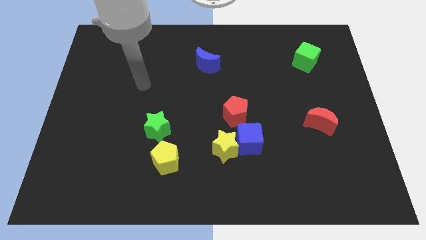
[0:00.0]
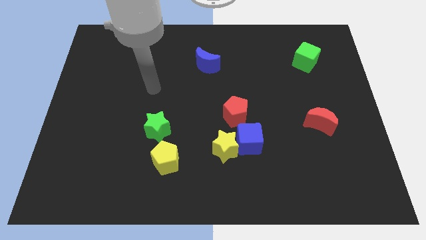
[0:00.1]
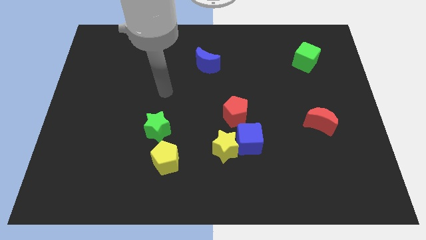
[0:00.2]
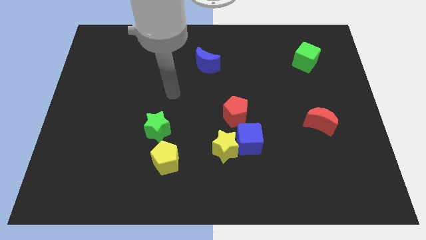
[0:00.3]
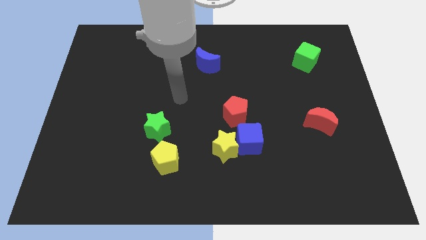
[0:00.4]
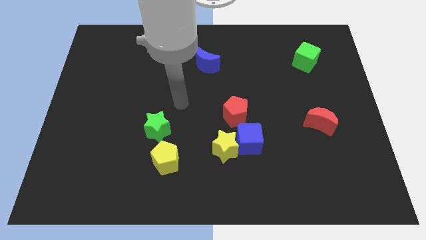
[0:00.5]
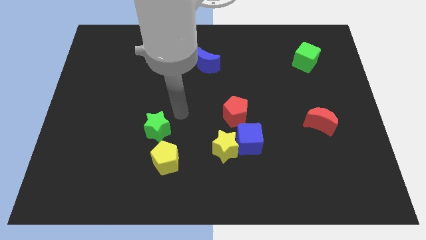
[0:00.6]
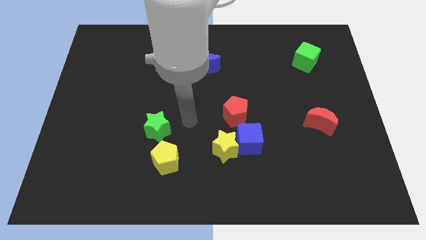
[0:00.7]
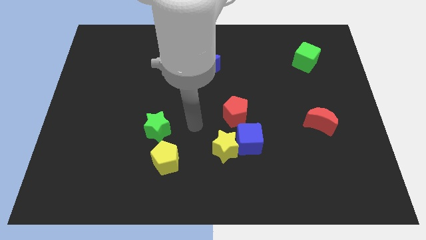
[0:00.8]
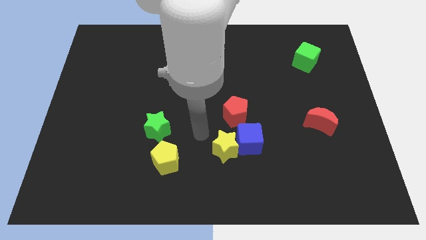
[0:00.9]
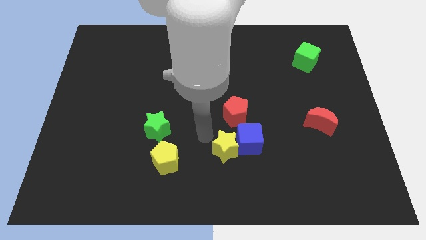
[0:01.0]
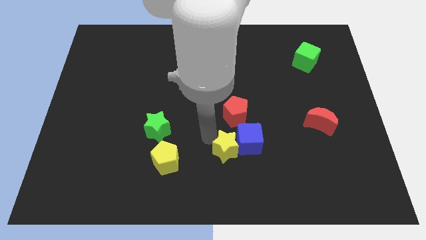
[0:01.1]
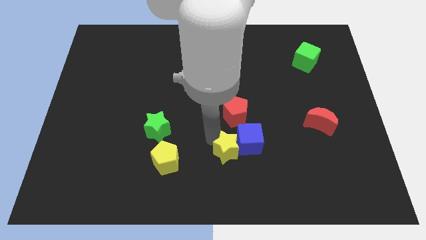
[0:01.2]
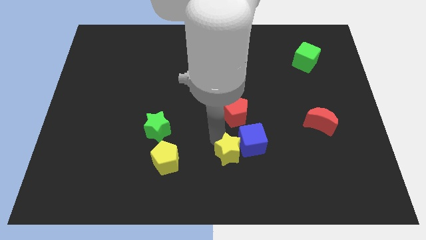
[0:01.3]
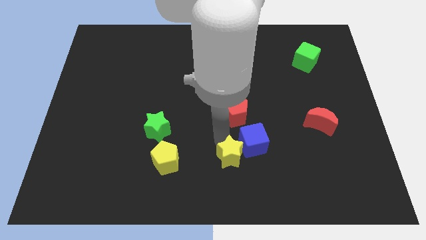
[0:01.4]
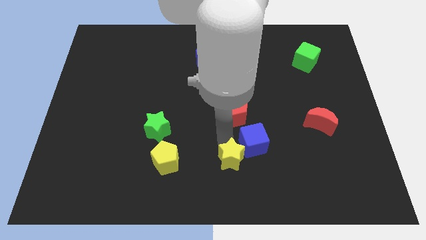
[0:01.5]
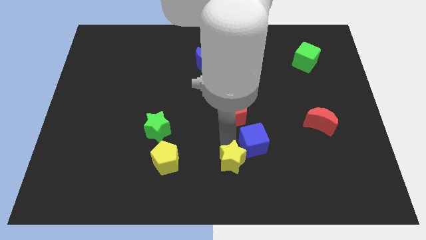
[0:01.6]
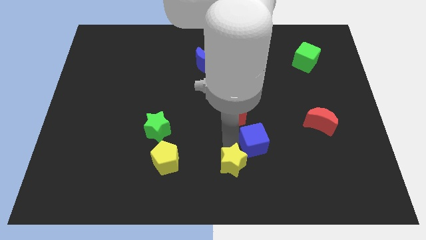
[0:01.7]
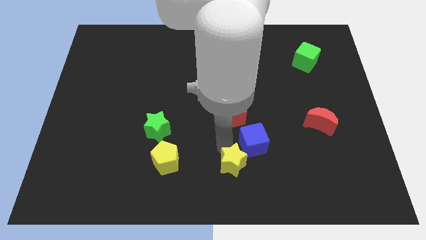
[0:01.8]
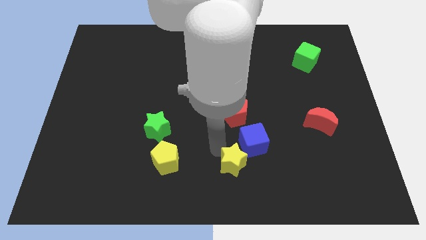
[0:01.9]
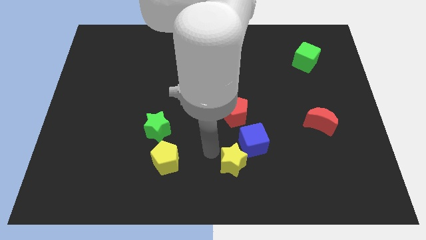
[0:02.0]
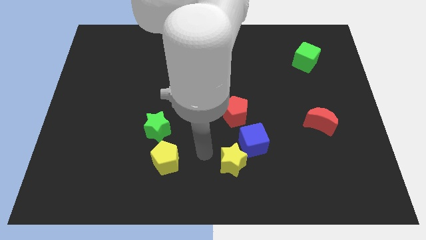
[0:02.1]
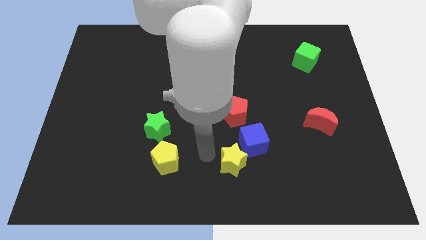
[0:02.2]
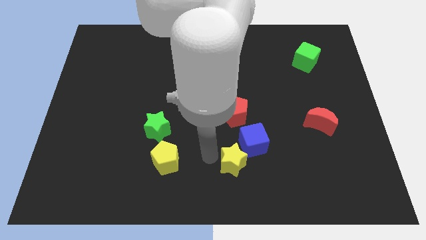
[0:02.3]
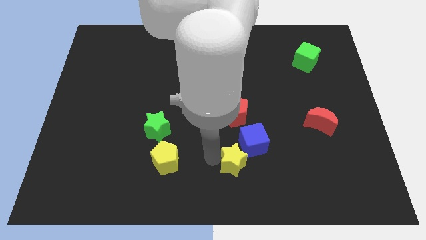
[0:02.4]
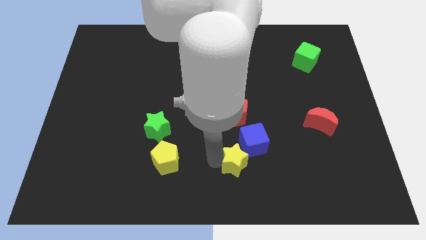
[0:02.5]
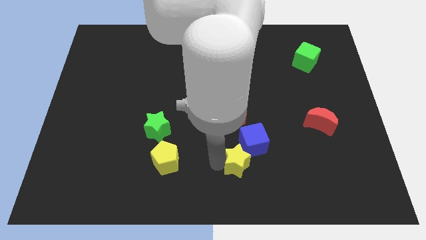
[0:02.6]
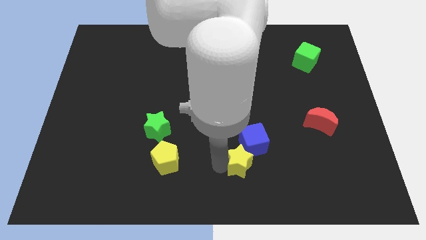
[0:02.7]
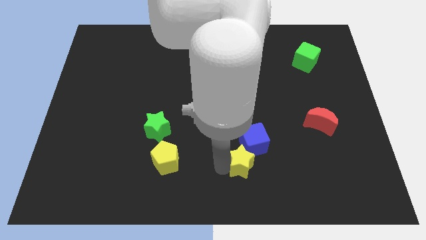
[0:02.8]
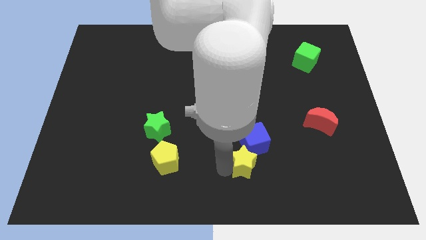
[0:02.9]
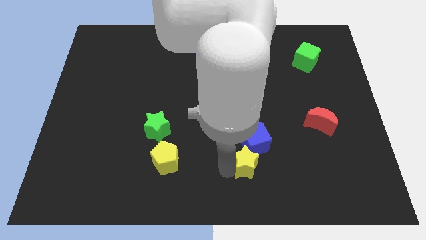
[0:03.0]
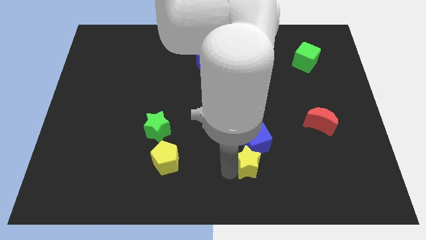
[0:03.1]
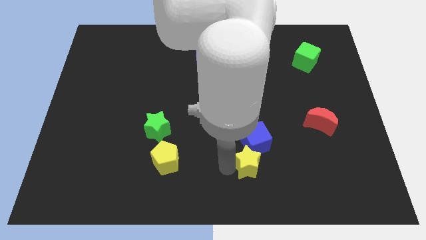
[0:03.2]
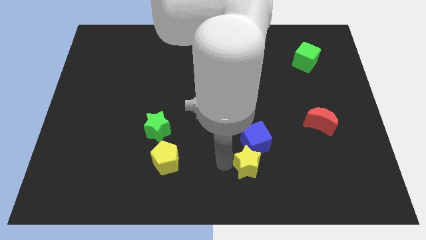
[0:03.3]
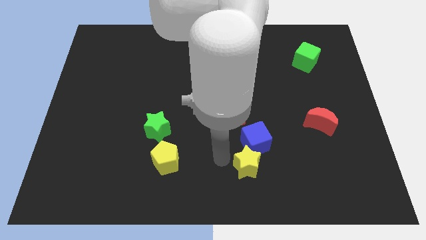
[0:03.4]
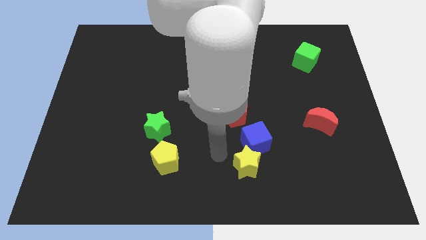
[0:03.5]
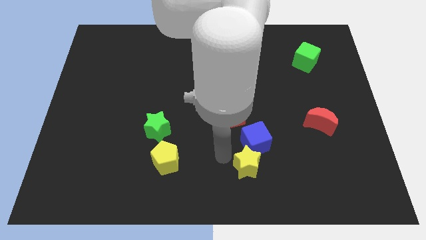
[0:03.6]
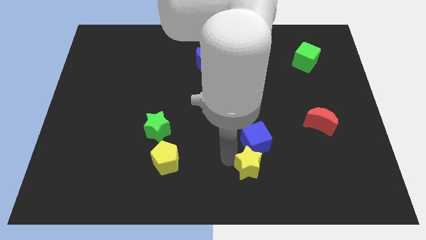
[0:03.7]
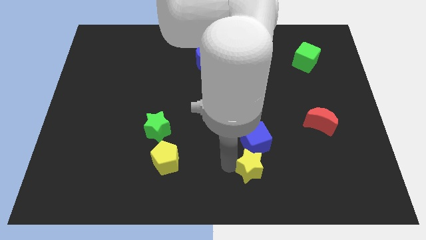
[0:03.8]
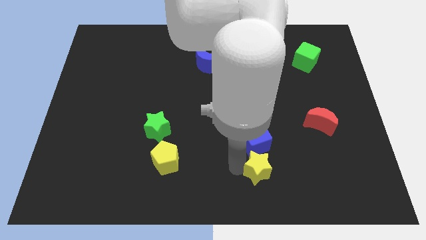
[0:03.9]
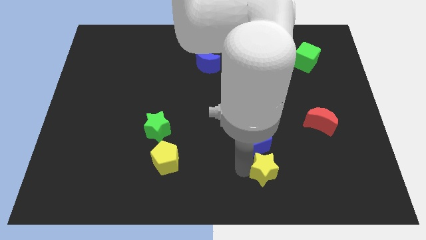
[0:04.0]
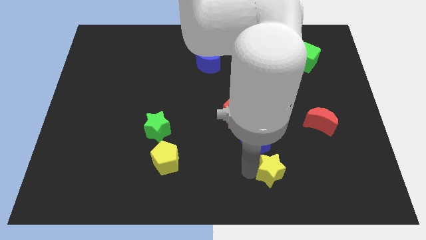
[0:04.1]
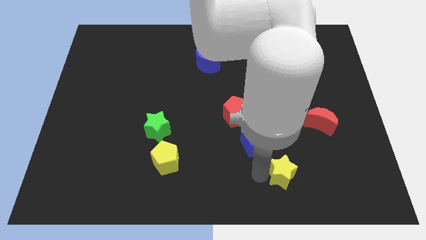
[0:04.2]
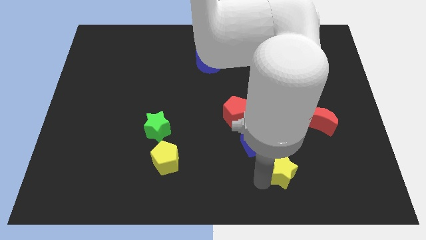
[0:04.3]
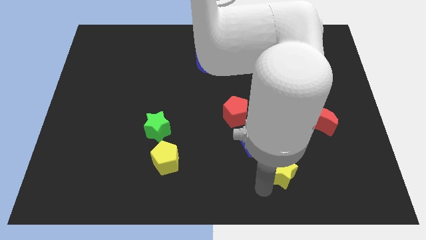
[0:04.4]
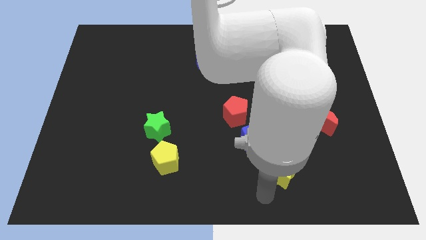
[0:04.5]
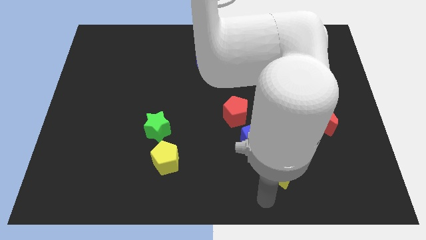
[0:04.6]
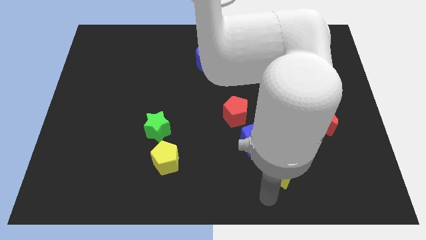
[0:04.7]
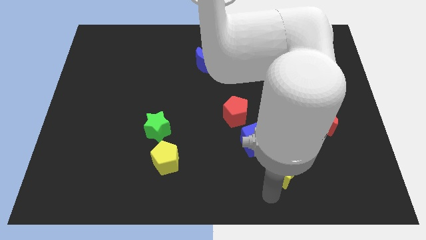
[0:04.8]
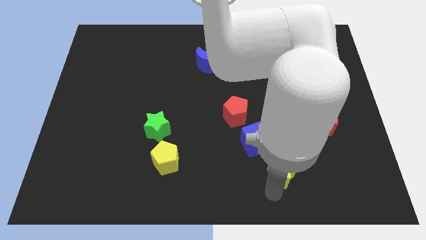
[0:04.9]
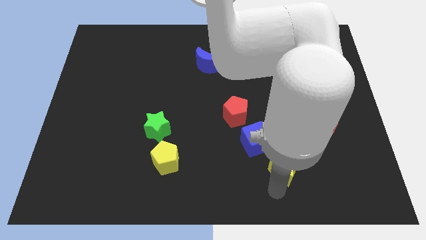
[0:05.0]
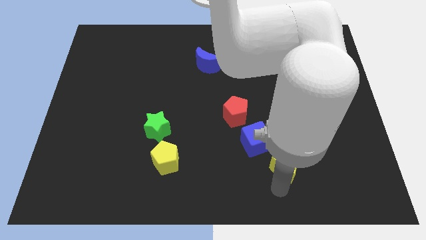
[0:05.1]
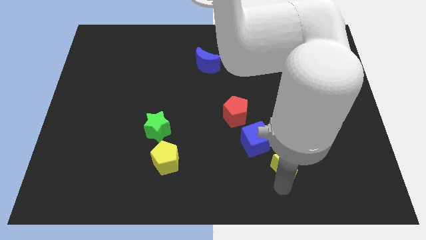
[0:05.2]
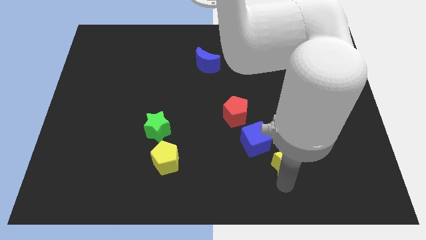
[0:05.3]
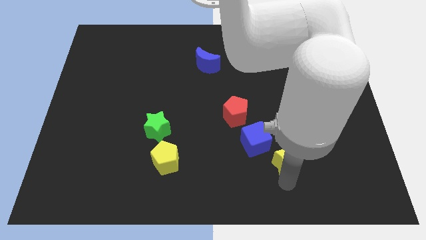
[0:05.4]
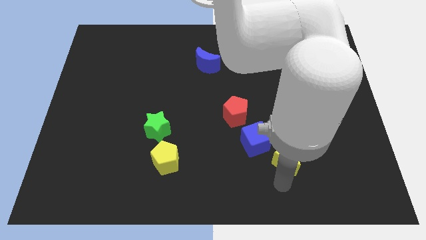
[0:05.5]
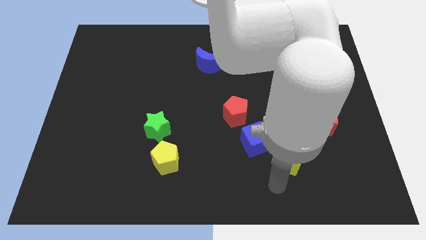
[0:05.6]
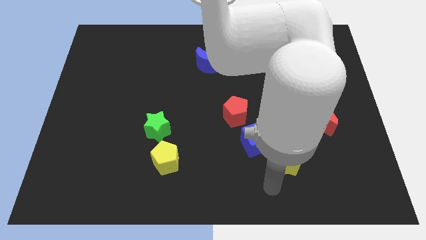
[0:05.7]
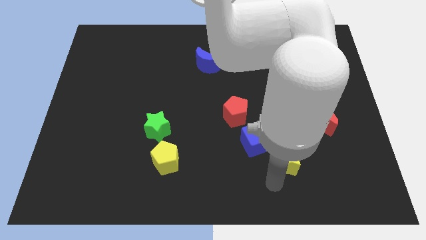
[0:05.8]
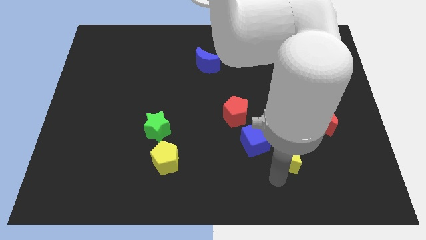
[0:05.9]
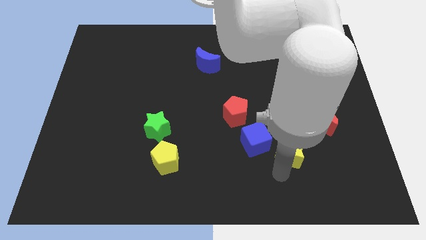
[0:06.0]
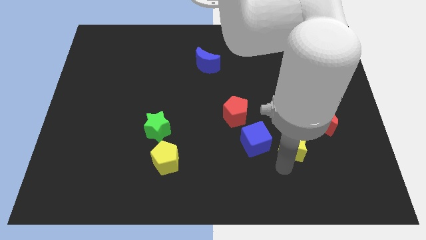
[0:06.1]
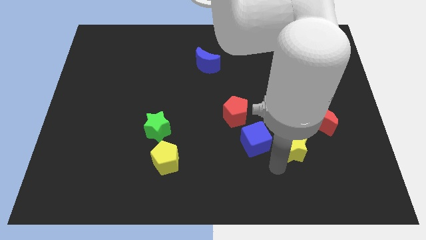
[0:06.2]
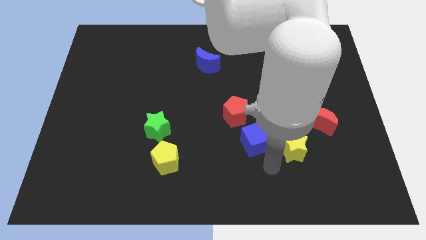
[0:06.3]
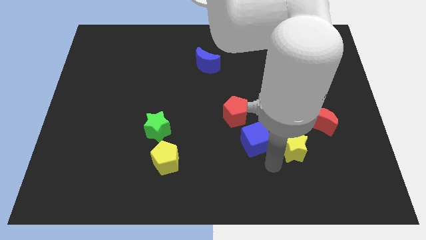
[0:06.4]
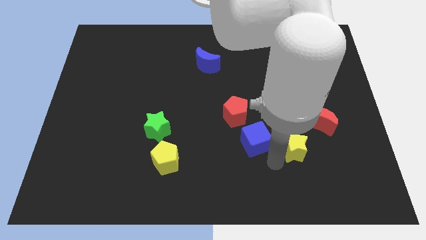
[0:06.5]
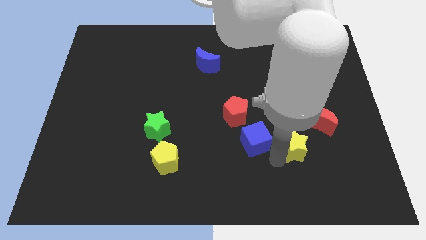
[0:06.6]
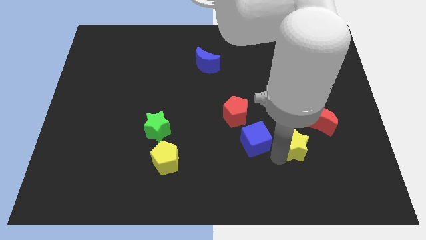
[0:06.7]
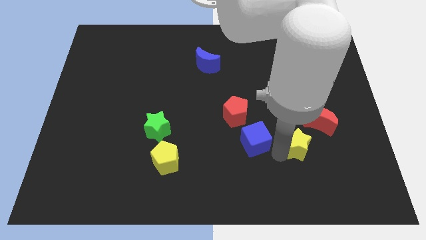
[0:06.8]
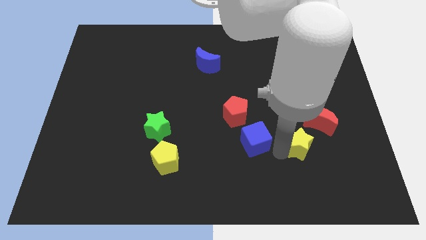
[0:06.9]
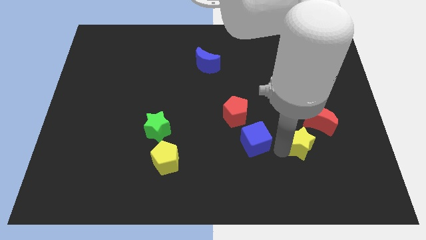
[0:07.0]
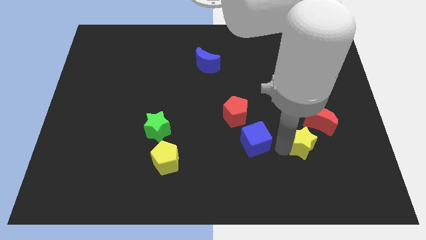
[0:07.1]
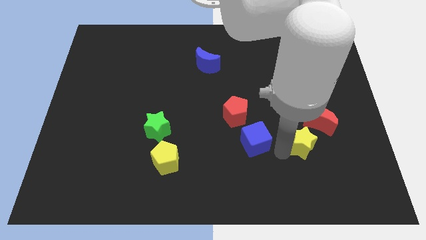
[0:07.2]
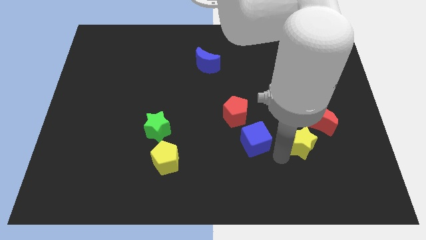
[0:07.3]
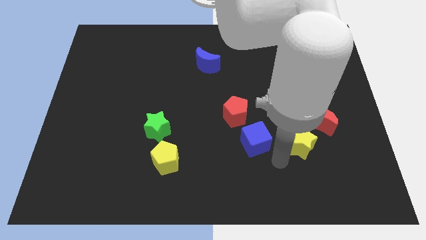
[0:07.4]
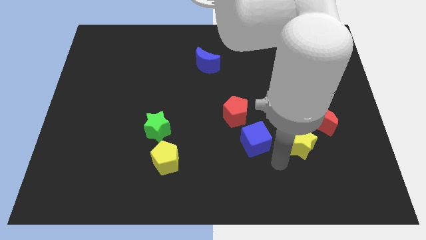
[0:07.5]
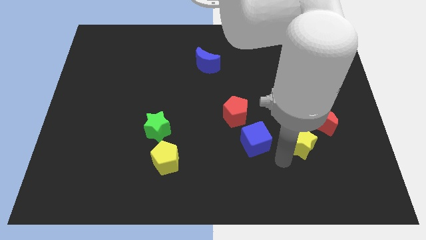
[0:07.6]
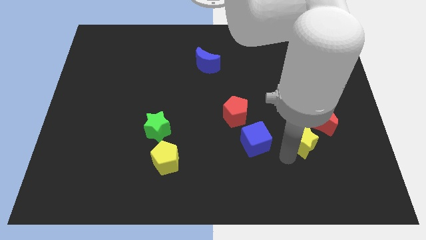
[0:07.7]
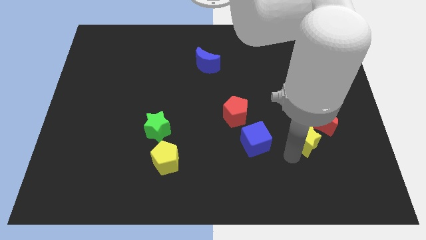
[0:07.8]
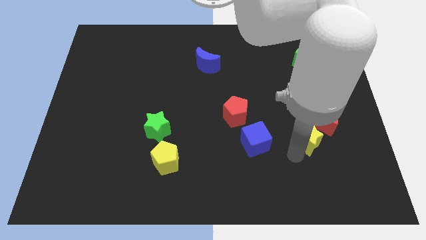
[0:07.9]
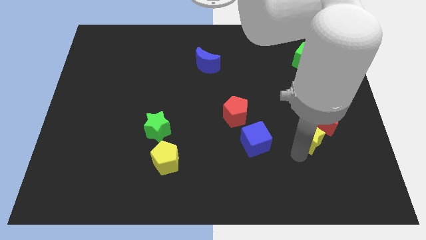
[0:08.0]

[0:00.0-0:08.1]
move the yellow star close to the red moon
